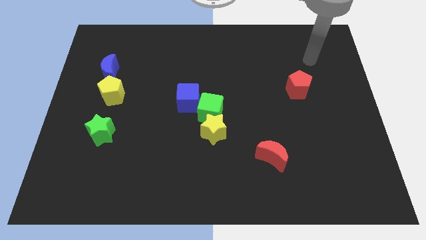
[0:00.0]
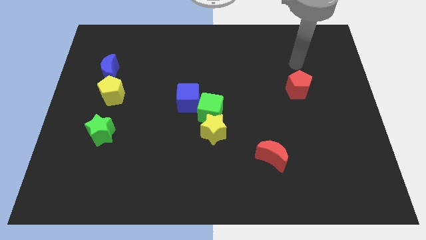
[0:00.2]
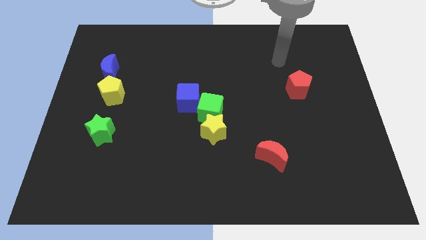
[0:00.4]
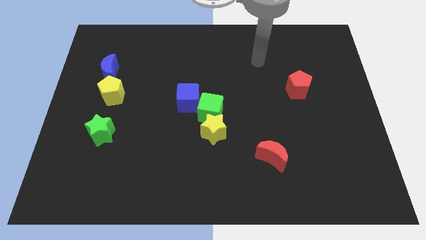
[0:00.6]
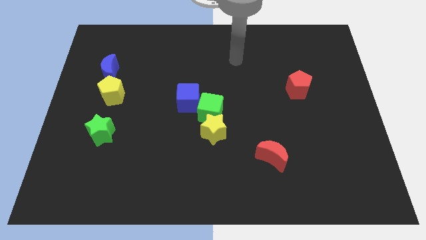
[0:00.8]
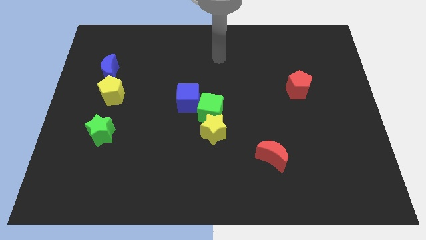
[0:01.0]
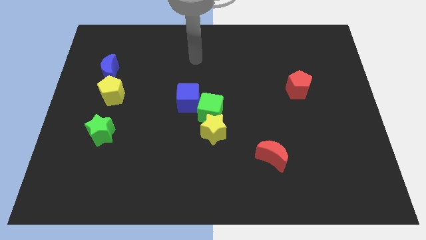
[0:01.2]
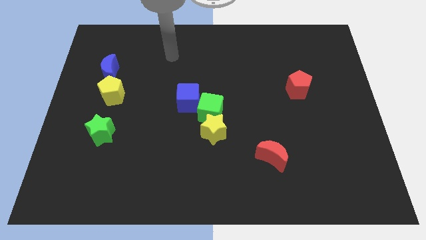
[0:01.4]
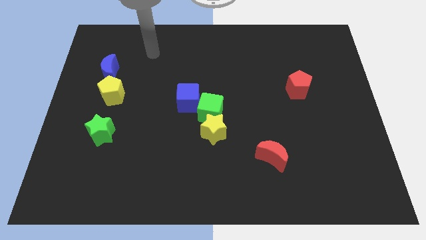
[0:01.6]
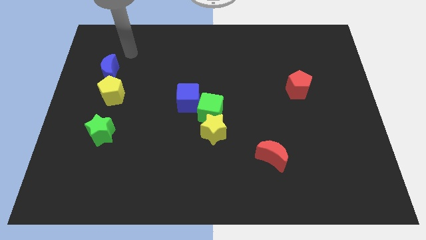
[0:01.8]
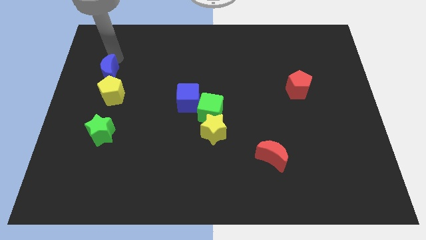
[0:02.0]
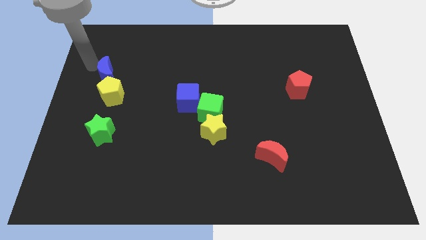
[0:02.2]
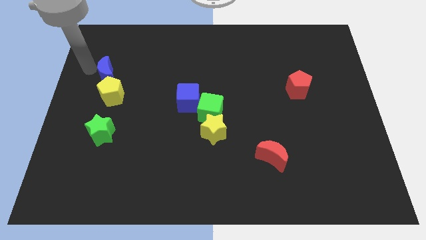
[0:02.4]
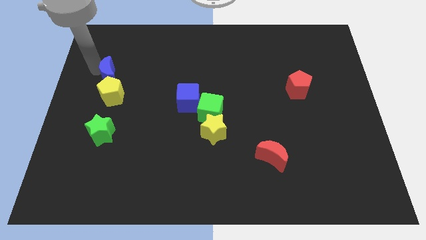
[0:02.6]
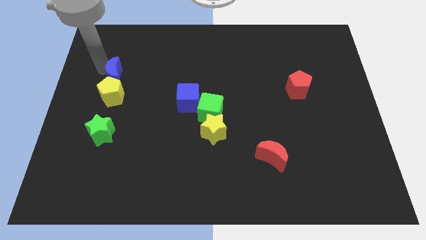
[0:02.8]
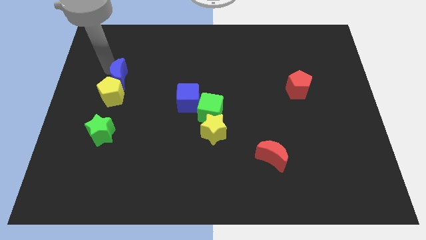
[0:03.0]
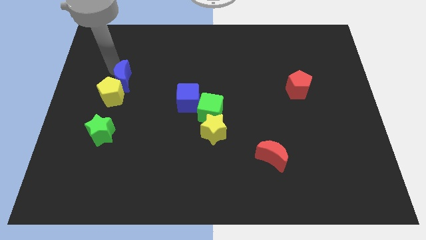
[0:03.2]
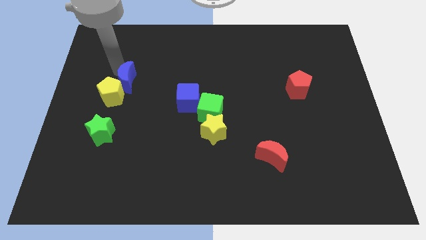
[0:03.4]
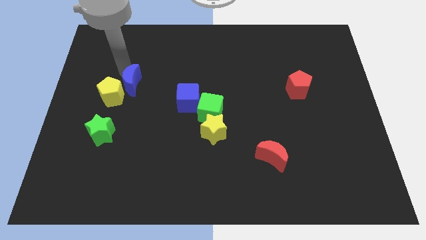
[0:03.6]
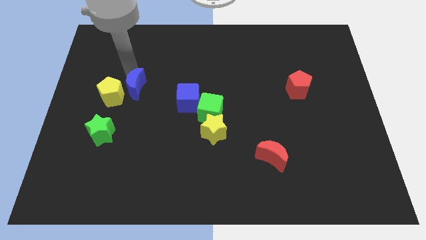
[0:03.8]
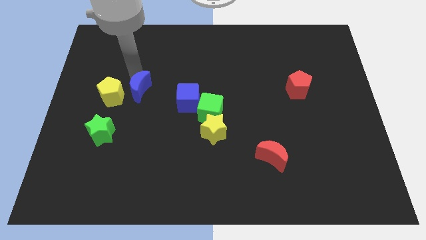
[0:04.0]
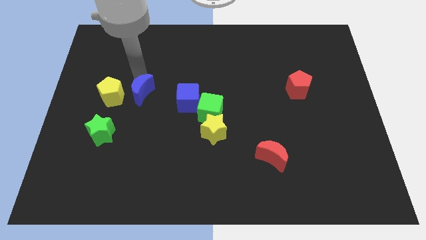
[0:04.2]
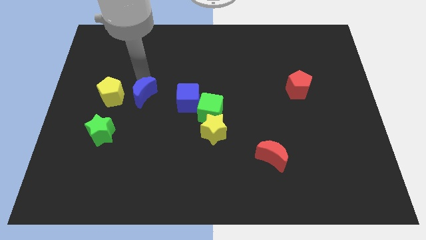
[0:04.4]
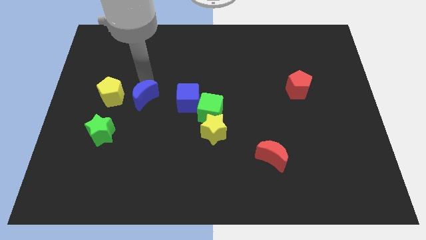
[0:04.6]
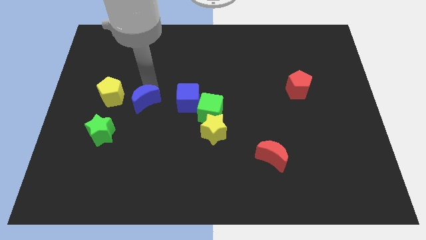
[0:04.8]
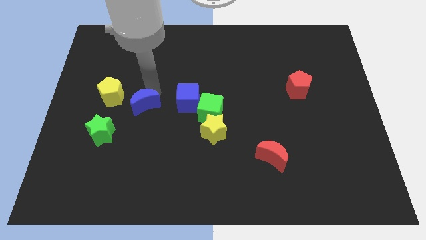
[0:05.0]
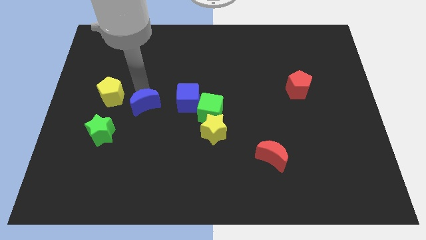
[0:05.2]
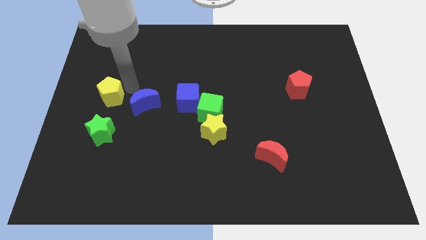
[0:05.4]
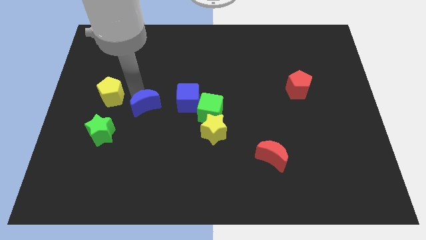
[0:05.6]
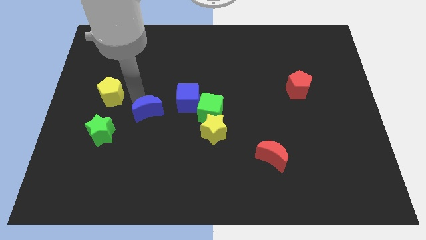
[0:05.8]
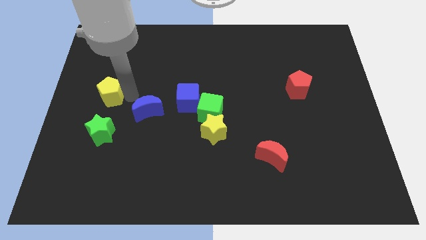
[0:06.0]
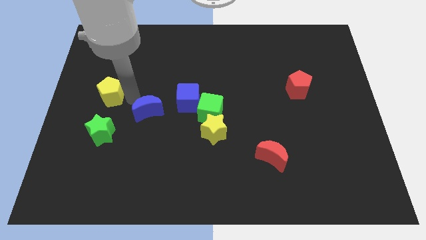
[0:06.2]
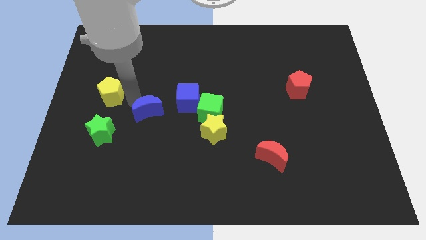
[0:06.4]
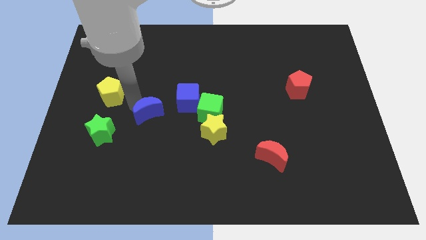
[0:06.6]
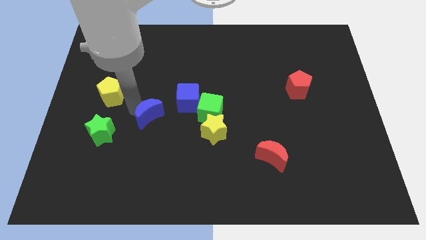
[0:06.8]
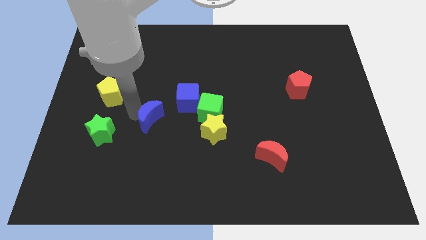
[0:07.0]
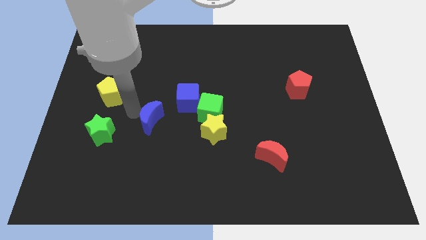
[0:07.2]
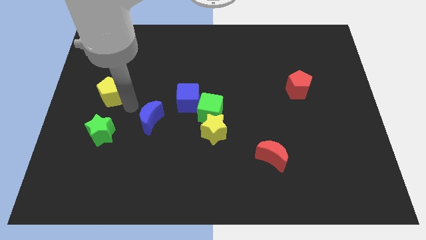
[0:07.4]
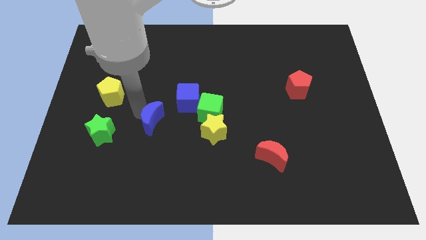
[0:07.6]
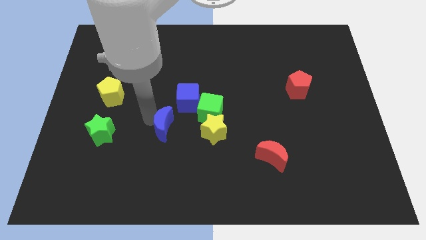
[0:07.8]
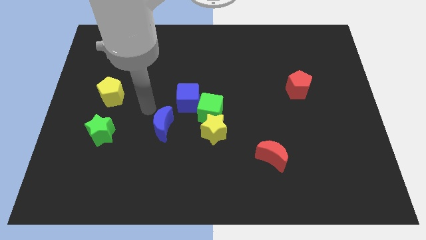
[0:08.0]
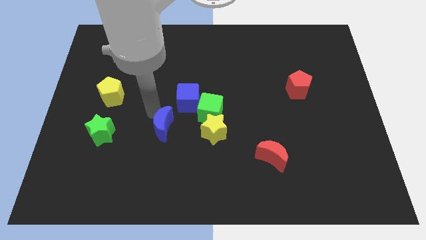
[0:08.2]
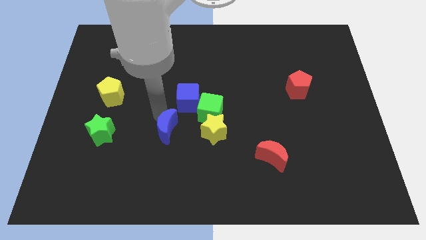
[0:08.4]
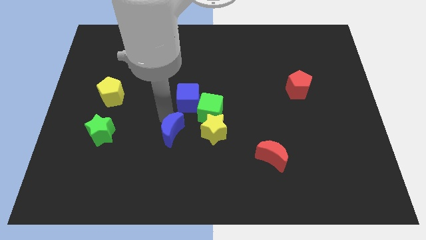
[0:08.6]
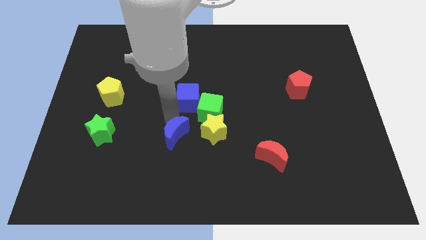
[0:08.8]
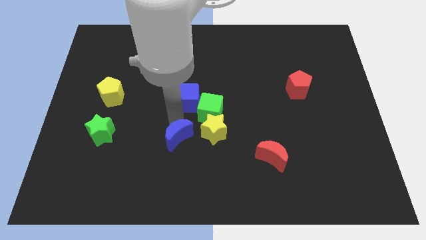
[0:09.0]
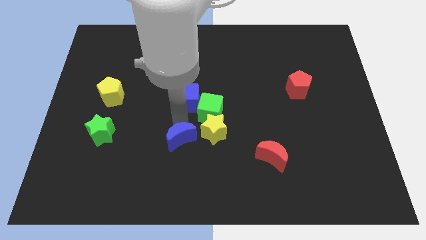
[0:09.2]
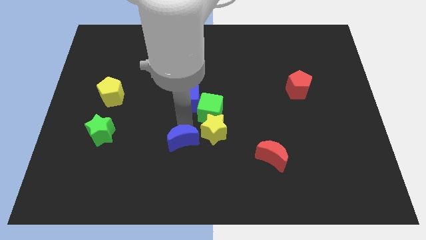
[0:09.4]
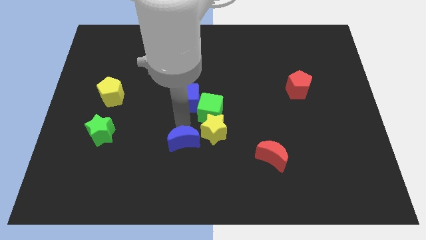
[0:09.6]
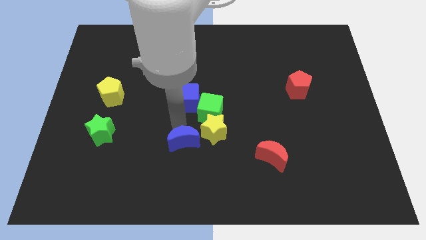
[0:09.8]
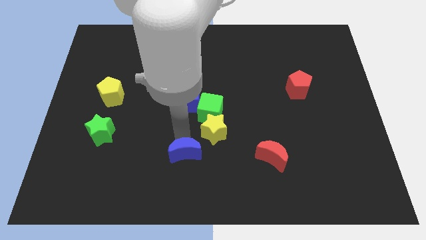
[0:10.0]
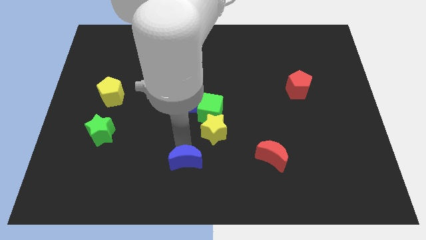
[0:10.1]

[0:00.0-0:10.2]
slide the blue moon to the bottom side

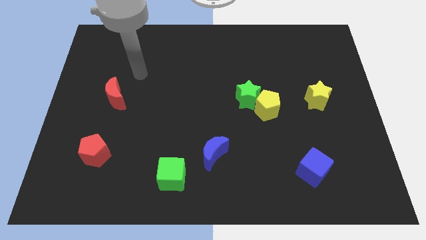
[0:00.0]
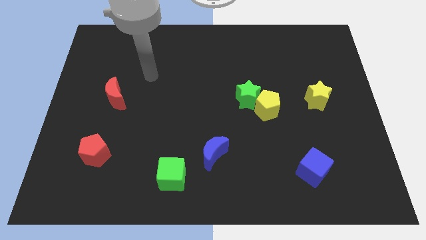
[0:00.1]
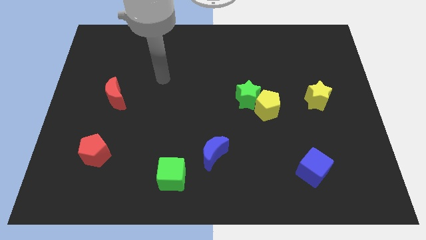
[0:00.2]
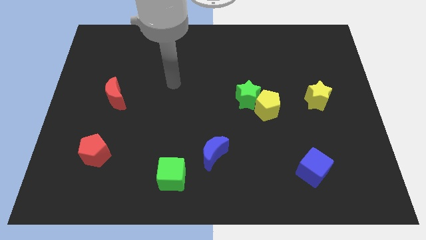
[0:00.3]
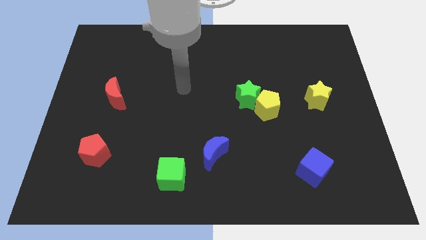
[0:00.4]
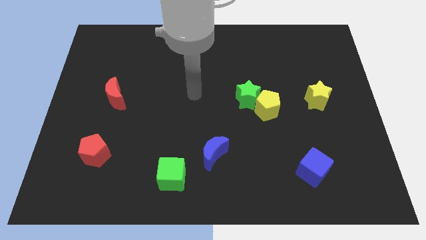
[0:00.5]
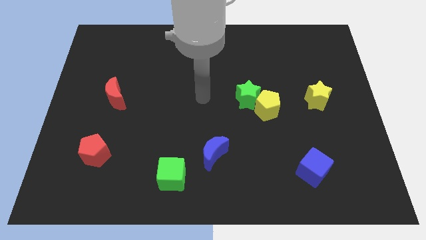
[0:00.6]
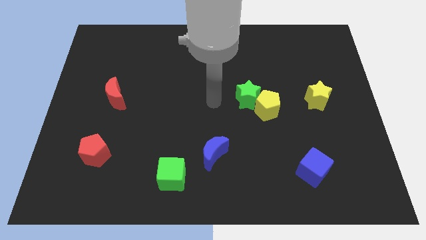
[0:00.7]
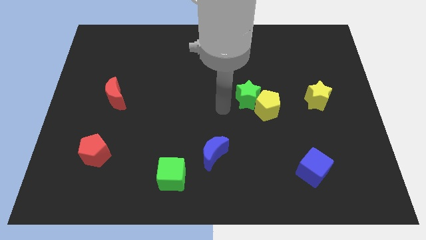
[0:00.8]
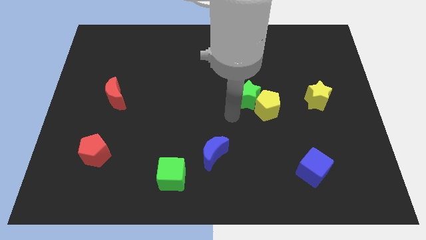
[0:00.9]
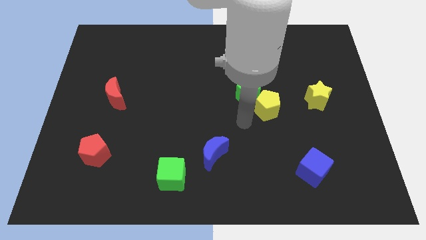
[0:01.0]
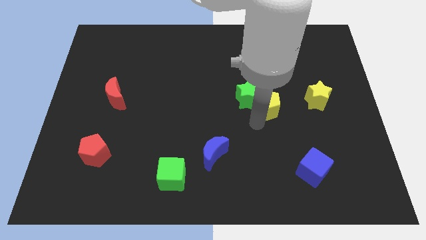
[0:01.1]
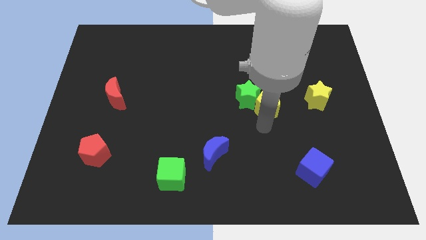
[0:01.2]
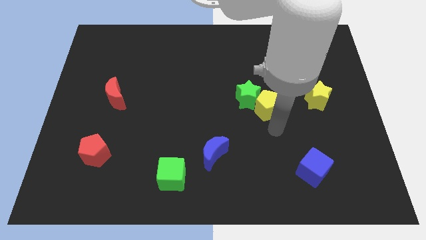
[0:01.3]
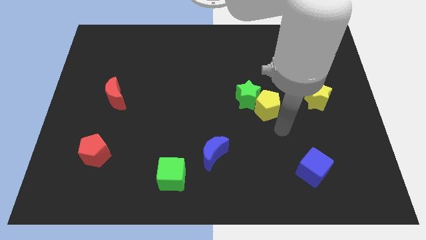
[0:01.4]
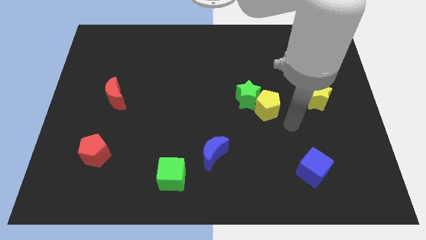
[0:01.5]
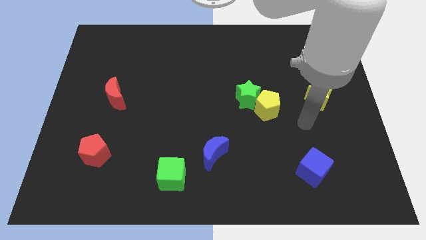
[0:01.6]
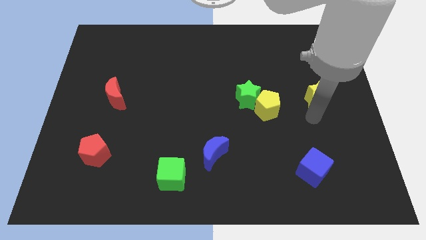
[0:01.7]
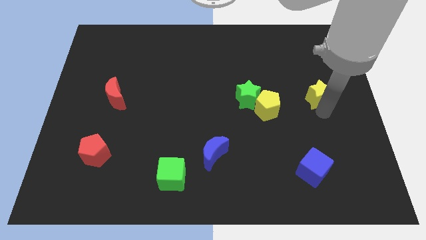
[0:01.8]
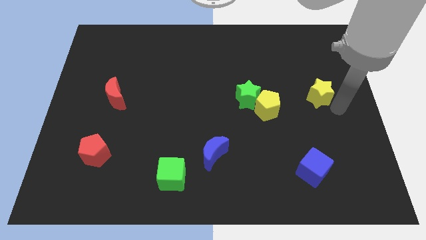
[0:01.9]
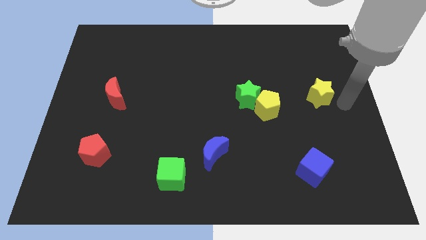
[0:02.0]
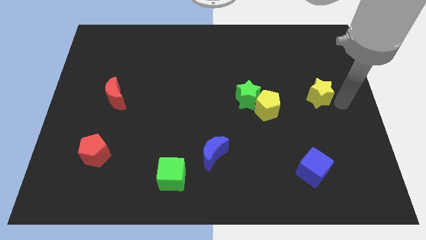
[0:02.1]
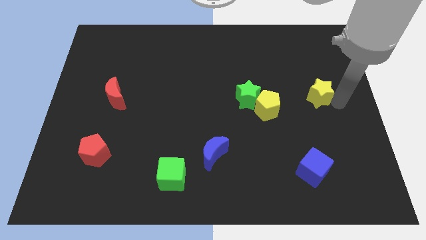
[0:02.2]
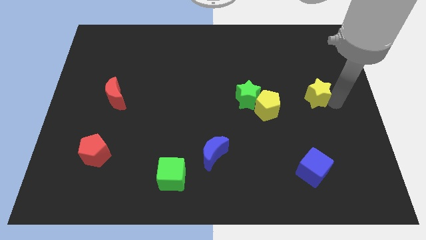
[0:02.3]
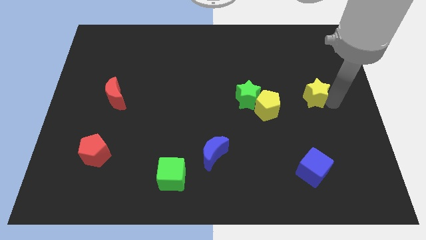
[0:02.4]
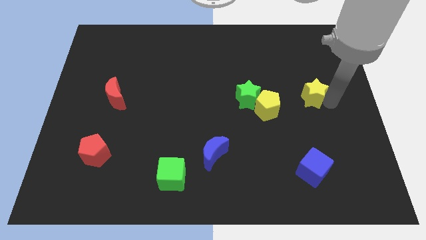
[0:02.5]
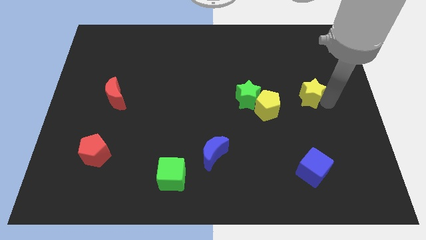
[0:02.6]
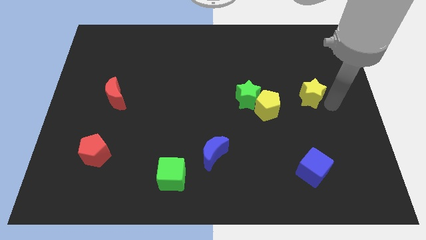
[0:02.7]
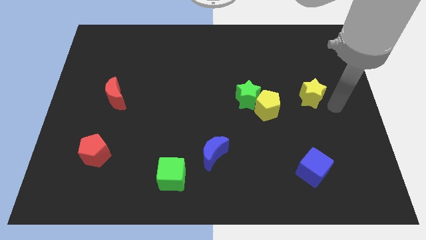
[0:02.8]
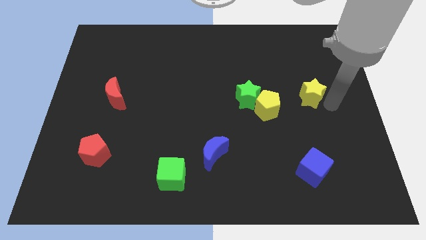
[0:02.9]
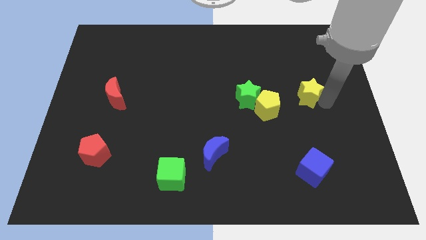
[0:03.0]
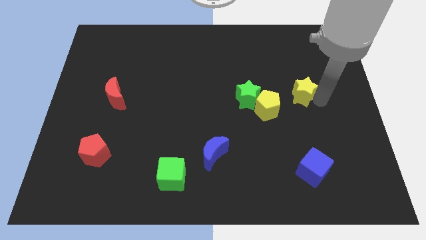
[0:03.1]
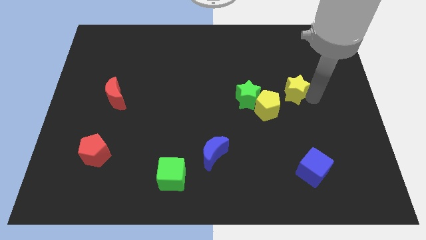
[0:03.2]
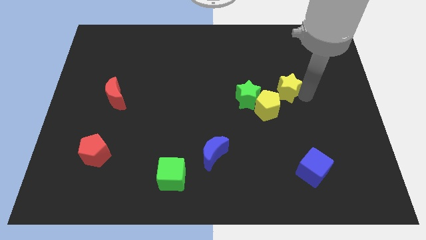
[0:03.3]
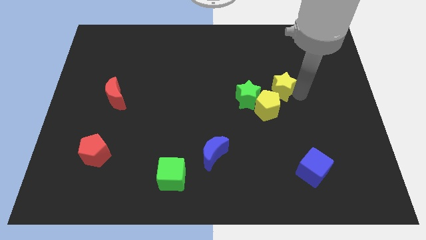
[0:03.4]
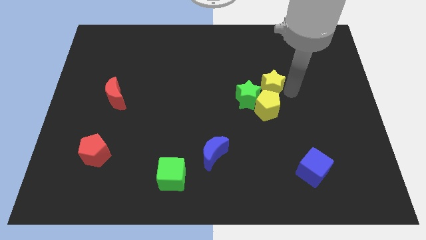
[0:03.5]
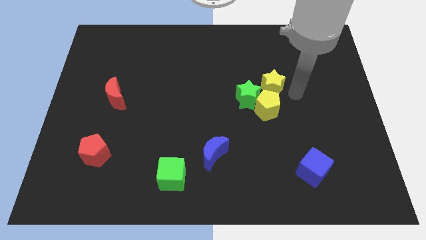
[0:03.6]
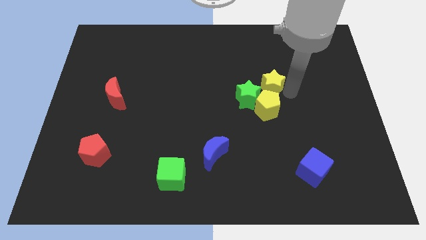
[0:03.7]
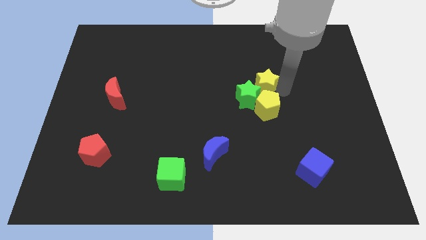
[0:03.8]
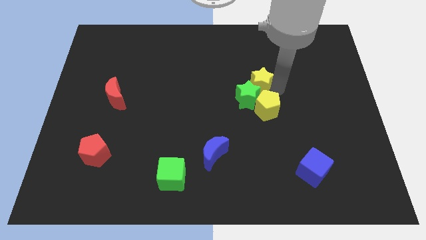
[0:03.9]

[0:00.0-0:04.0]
move the yellow star to the middle of the board
